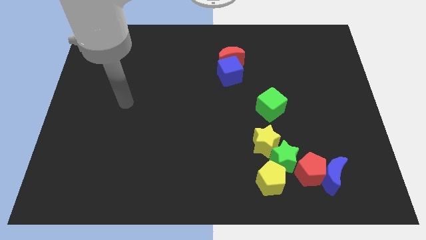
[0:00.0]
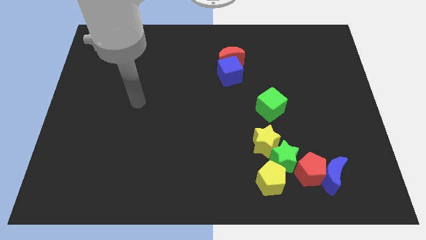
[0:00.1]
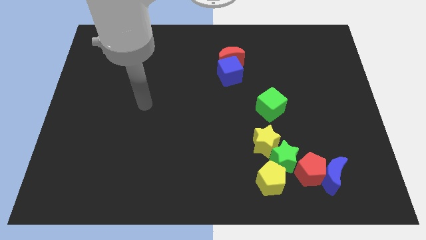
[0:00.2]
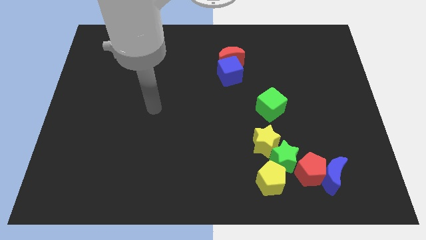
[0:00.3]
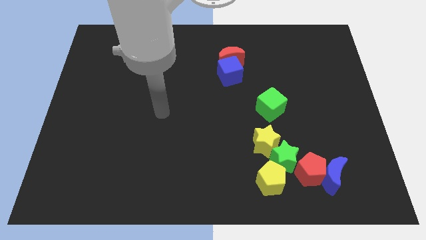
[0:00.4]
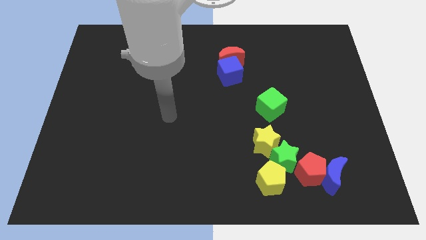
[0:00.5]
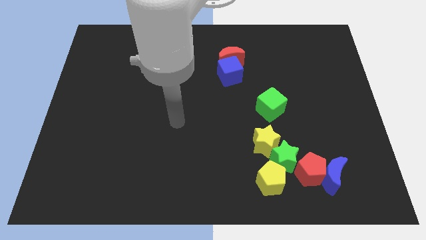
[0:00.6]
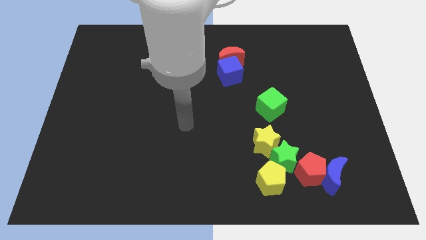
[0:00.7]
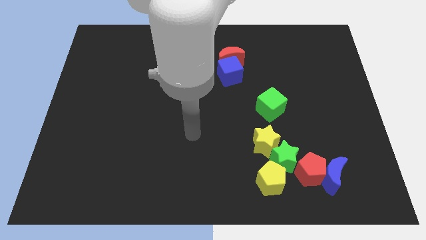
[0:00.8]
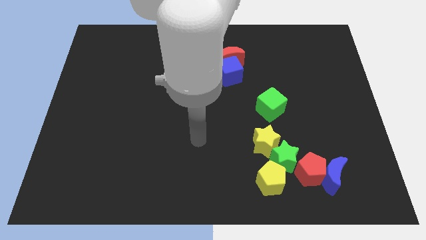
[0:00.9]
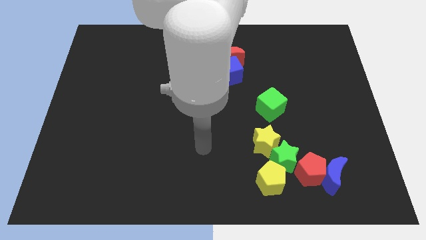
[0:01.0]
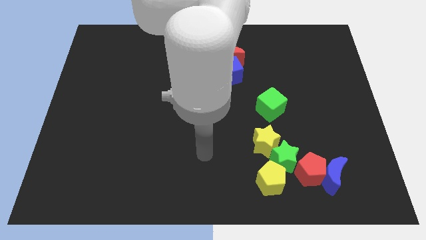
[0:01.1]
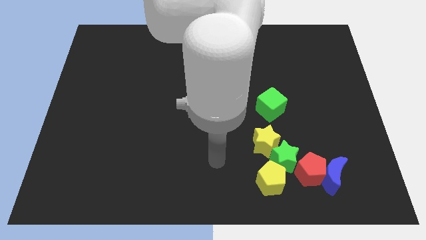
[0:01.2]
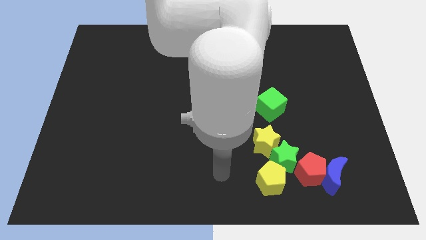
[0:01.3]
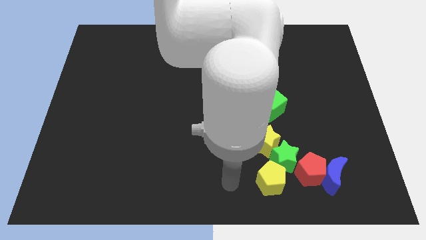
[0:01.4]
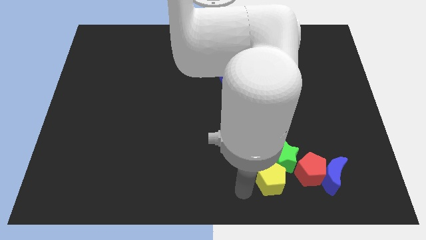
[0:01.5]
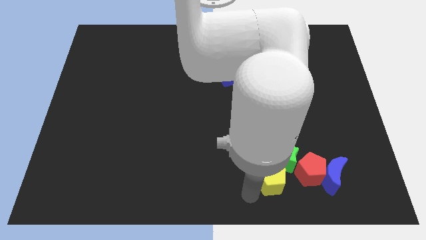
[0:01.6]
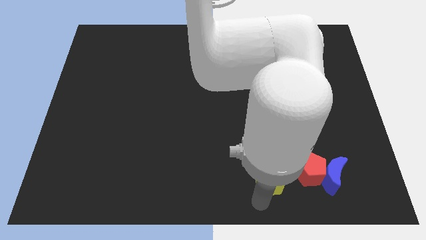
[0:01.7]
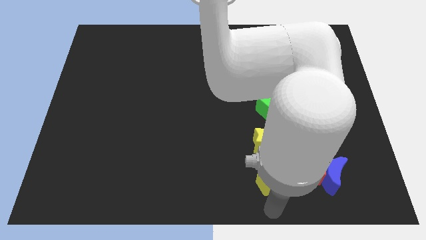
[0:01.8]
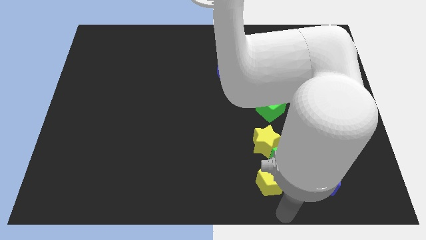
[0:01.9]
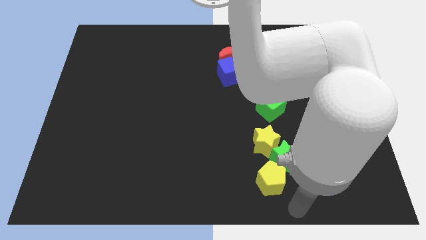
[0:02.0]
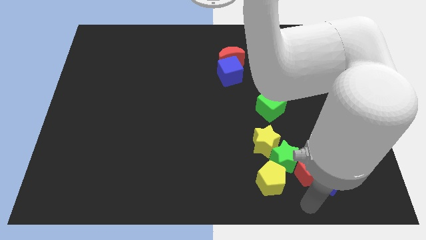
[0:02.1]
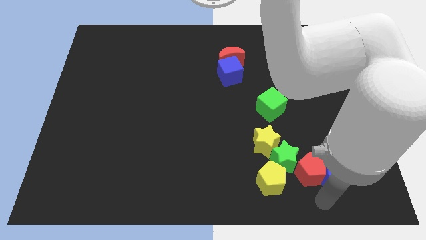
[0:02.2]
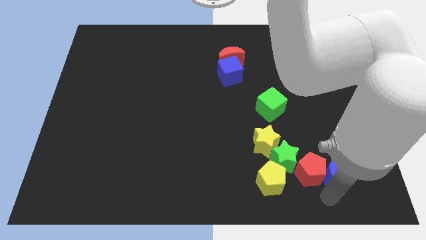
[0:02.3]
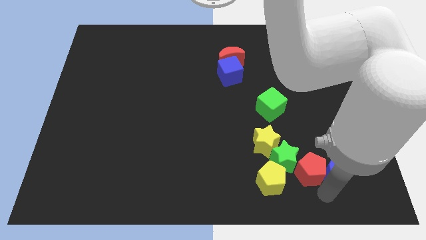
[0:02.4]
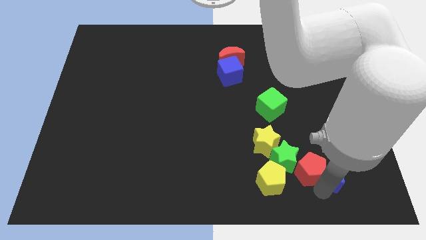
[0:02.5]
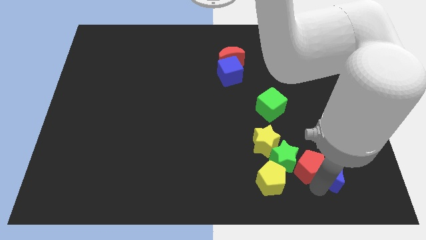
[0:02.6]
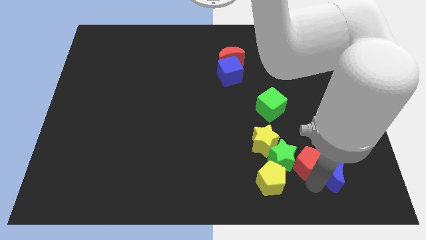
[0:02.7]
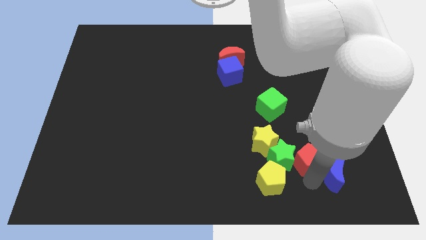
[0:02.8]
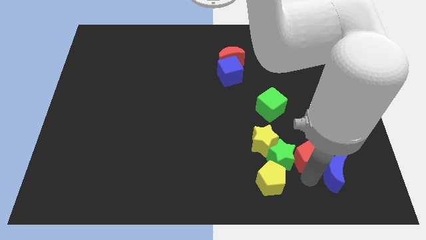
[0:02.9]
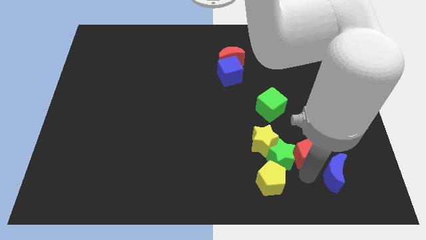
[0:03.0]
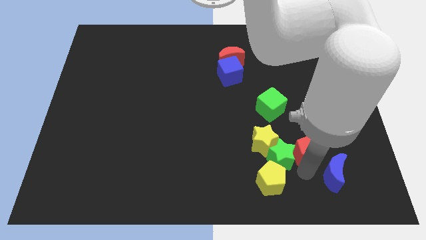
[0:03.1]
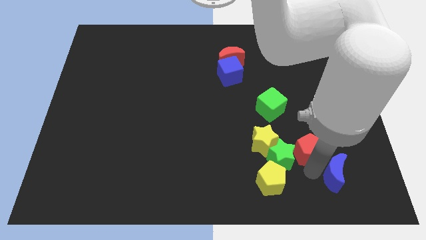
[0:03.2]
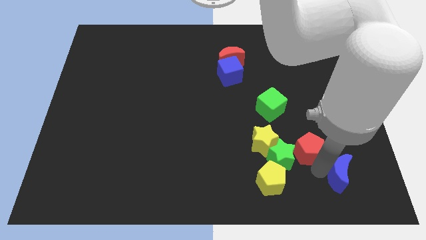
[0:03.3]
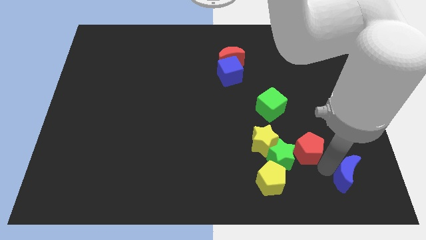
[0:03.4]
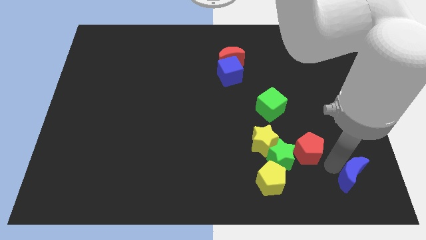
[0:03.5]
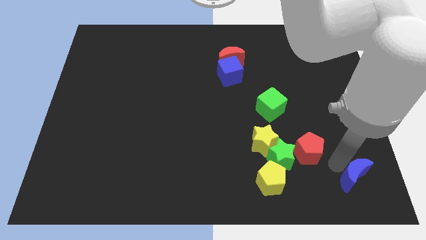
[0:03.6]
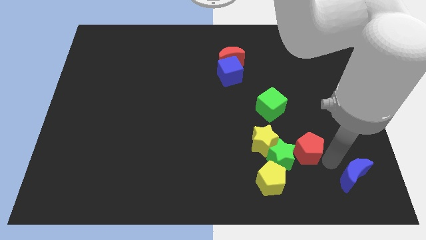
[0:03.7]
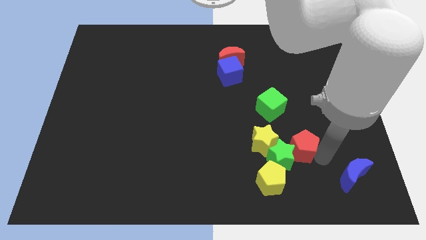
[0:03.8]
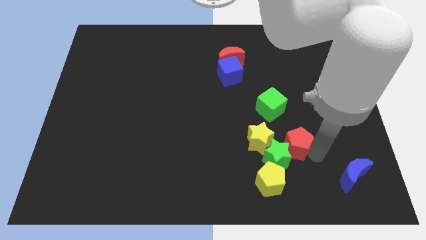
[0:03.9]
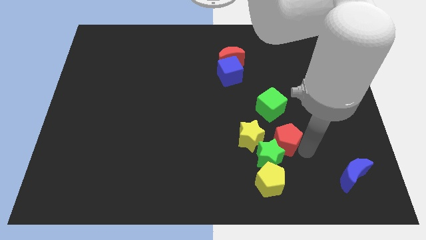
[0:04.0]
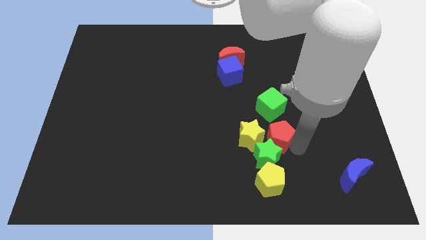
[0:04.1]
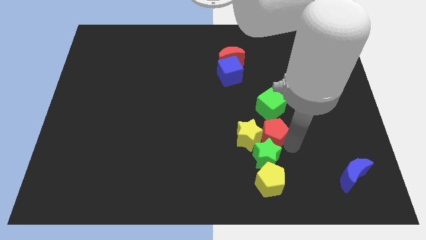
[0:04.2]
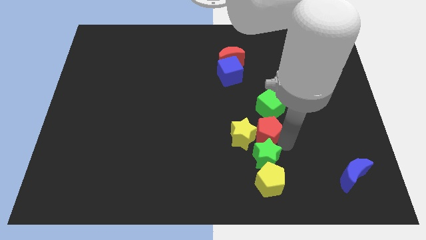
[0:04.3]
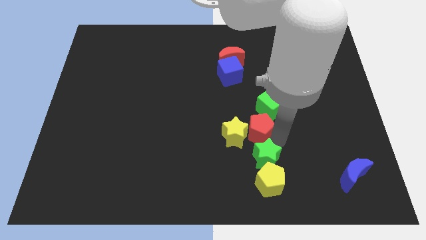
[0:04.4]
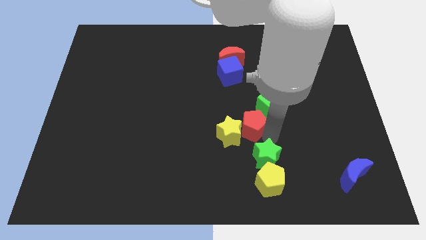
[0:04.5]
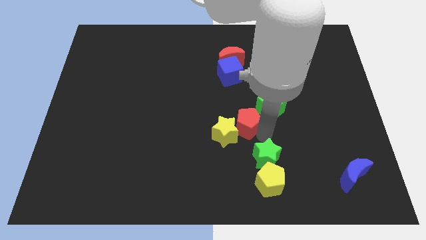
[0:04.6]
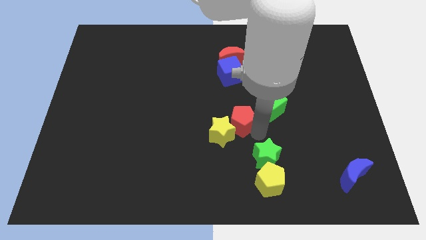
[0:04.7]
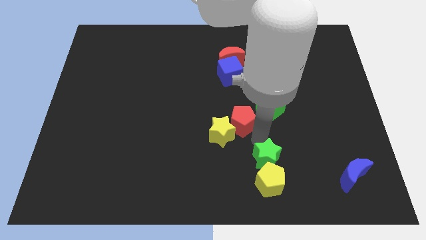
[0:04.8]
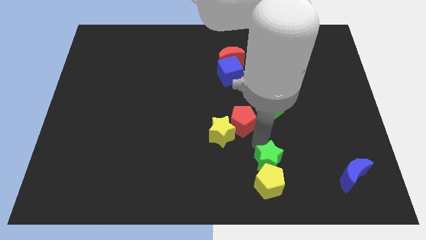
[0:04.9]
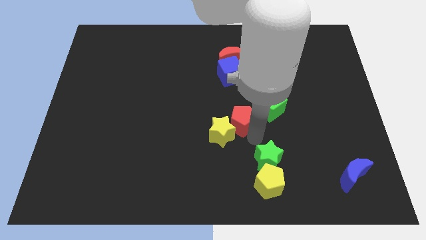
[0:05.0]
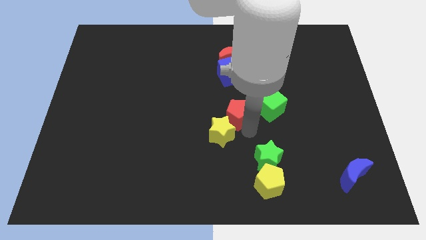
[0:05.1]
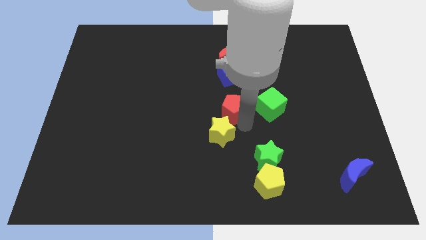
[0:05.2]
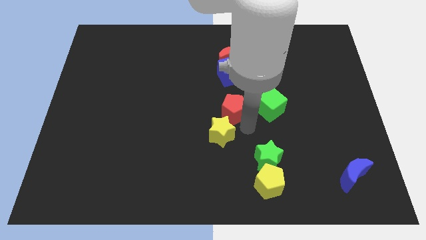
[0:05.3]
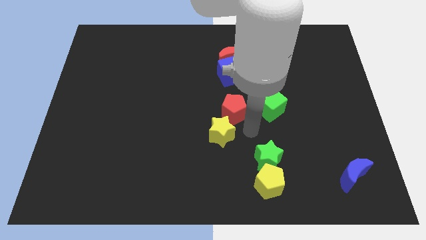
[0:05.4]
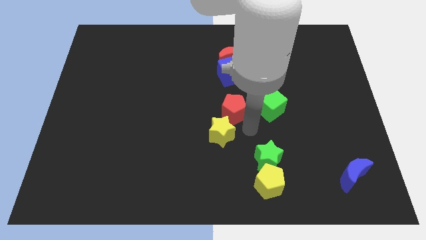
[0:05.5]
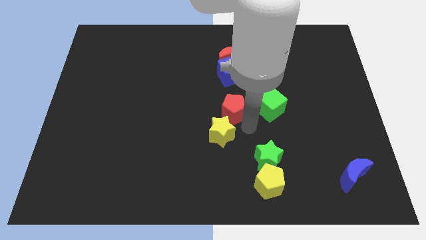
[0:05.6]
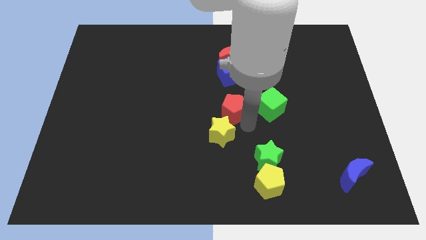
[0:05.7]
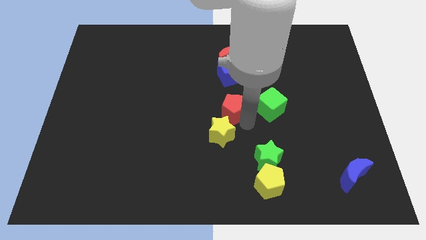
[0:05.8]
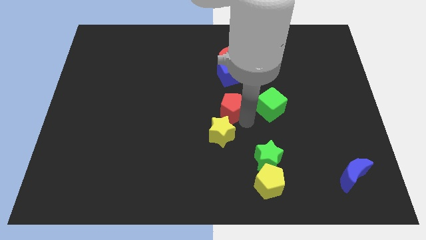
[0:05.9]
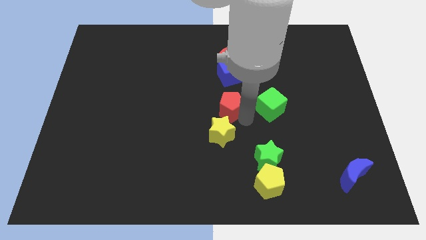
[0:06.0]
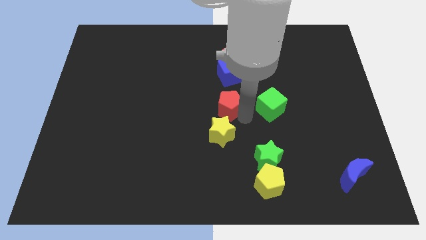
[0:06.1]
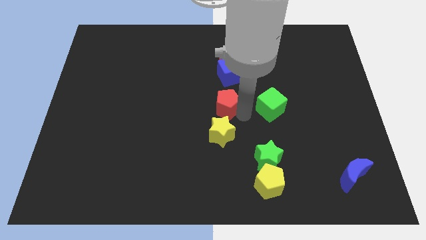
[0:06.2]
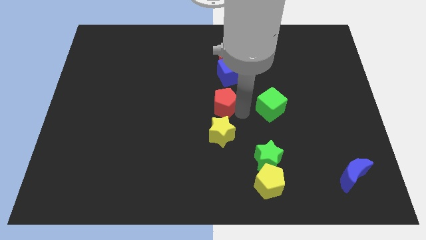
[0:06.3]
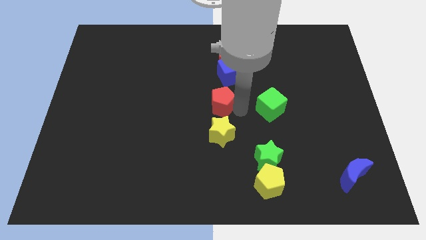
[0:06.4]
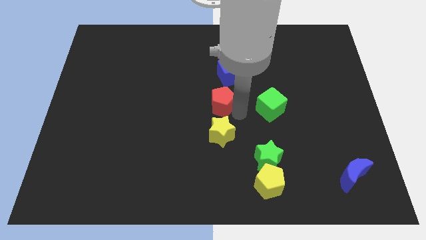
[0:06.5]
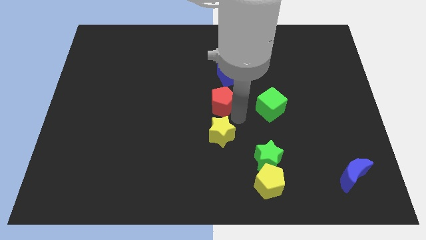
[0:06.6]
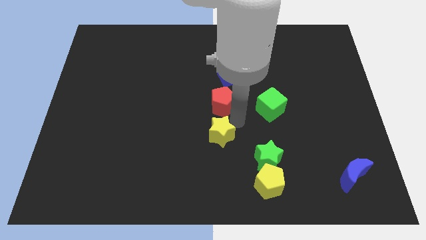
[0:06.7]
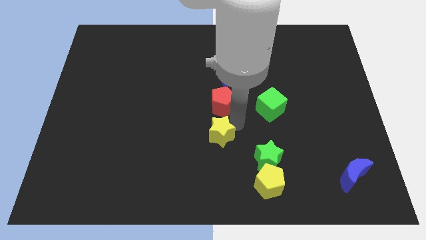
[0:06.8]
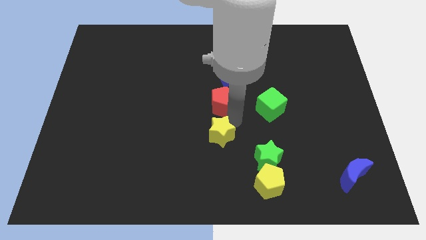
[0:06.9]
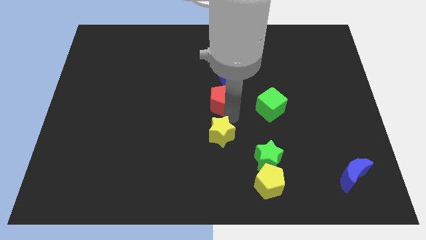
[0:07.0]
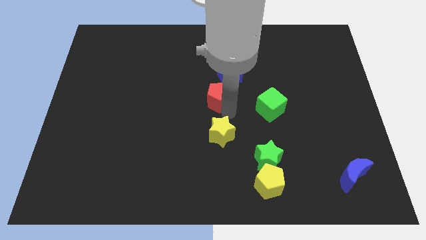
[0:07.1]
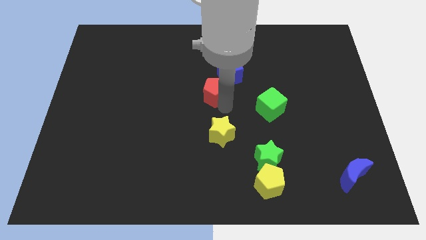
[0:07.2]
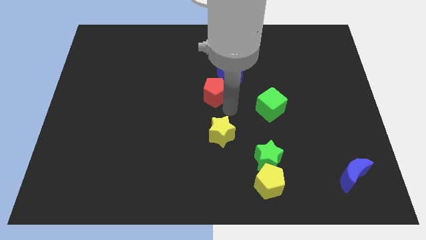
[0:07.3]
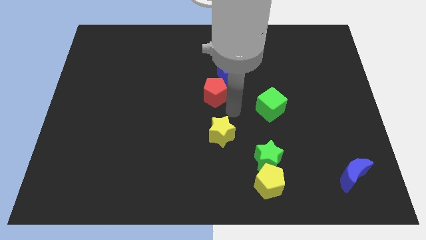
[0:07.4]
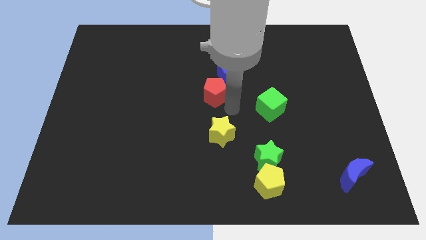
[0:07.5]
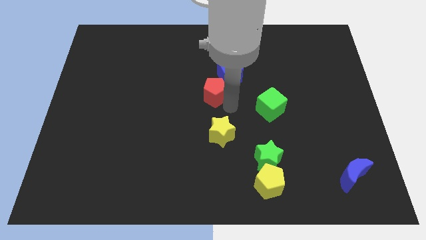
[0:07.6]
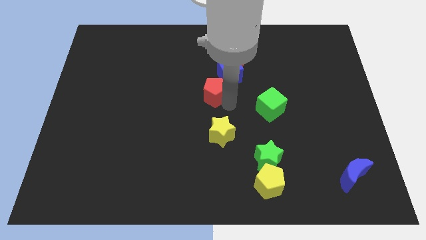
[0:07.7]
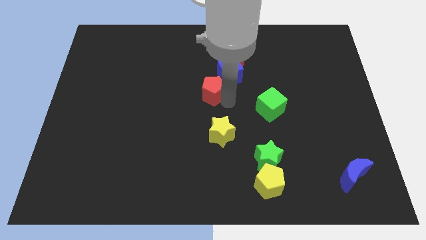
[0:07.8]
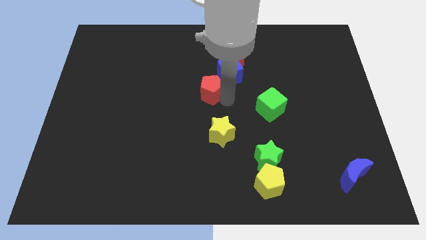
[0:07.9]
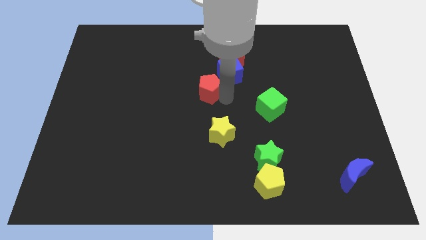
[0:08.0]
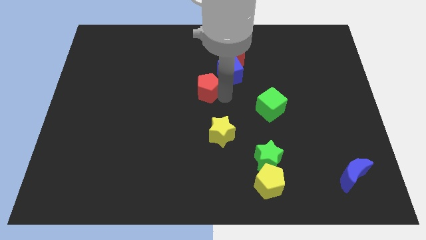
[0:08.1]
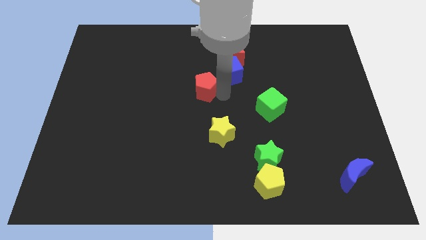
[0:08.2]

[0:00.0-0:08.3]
slide the red pentagon left of the blue cube

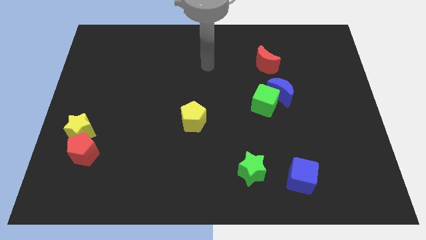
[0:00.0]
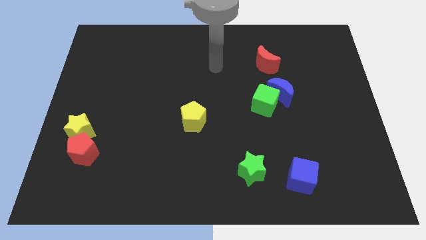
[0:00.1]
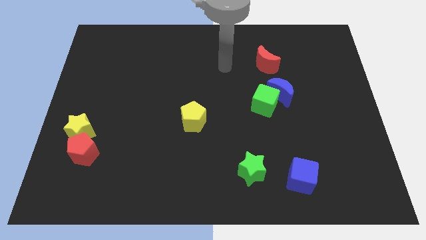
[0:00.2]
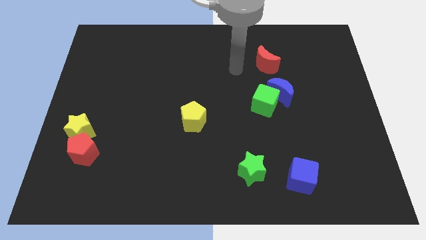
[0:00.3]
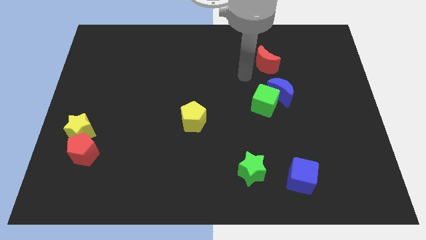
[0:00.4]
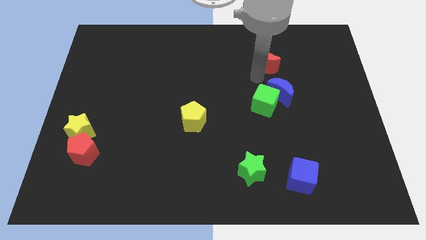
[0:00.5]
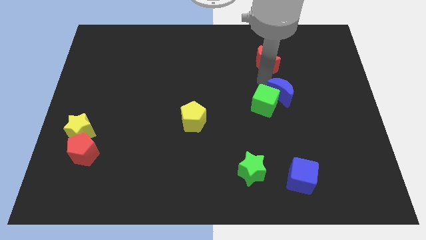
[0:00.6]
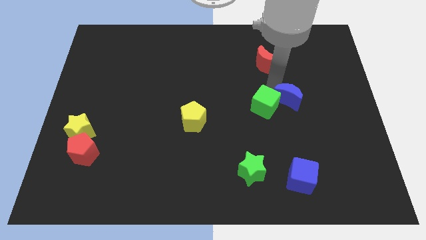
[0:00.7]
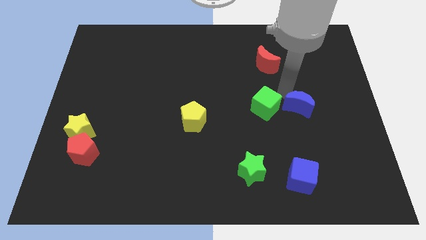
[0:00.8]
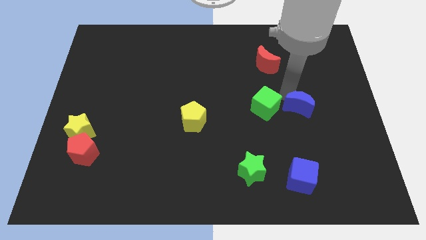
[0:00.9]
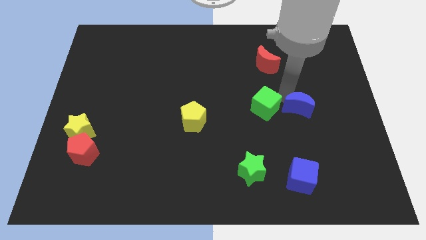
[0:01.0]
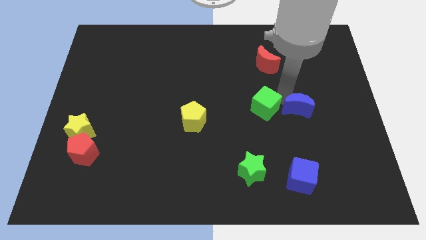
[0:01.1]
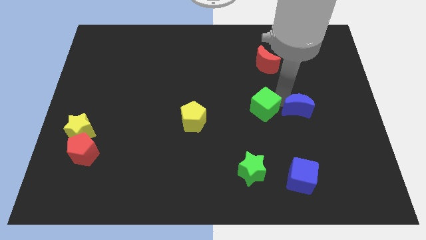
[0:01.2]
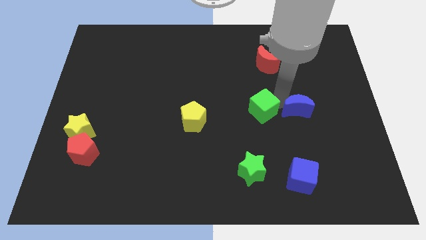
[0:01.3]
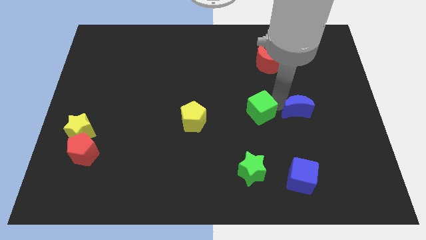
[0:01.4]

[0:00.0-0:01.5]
put the green cube to the right side of the yellow pentagon
